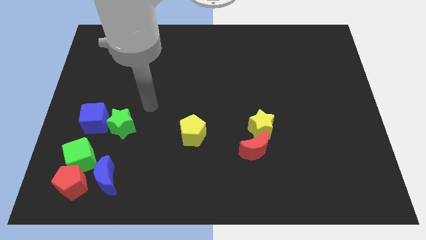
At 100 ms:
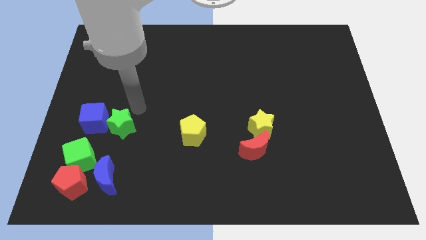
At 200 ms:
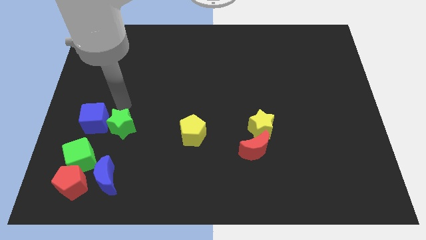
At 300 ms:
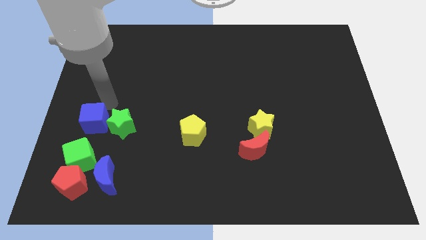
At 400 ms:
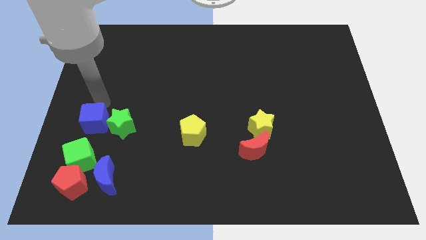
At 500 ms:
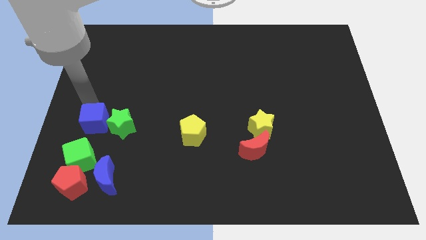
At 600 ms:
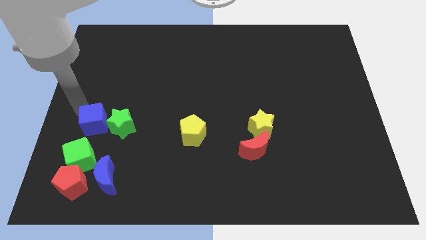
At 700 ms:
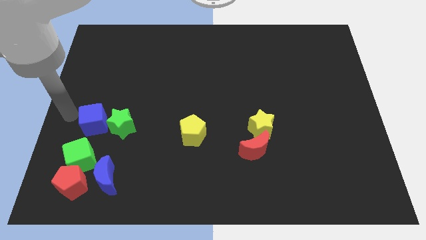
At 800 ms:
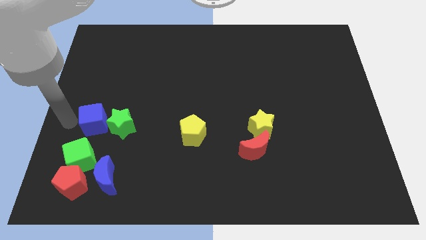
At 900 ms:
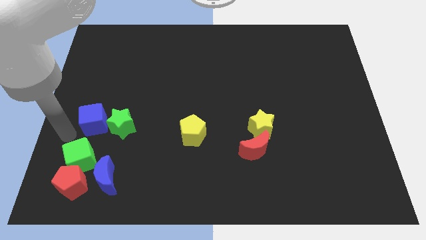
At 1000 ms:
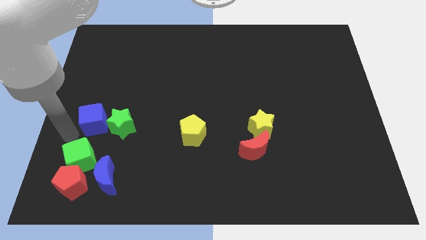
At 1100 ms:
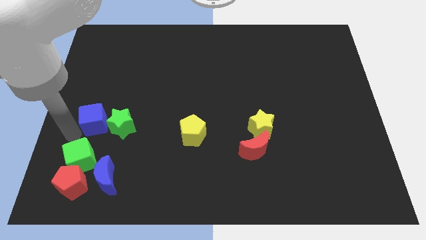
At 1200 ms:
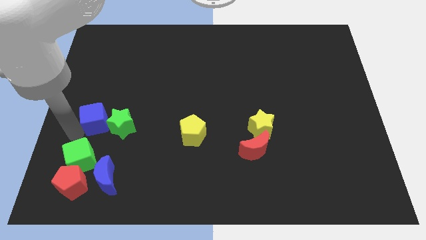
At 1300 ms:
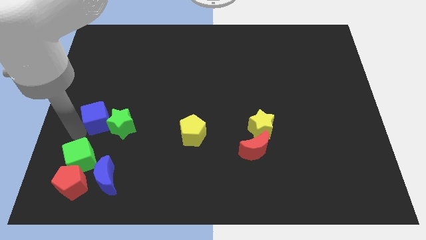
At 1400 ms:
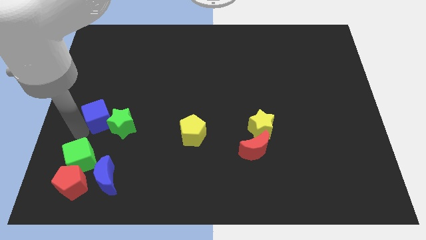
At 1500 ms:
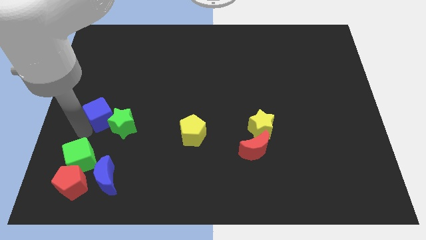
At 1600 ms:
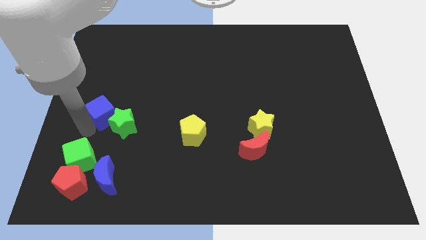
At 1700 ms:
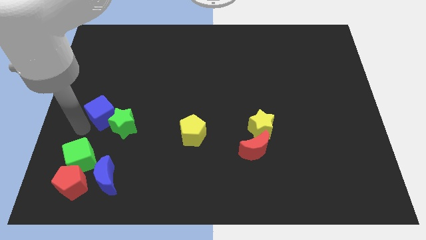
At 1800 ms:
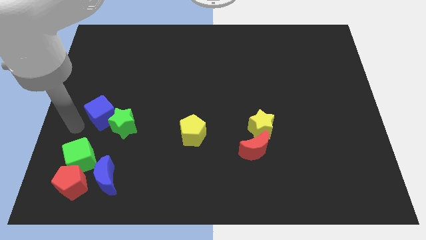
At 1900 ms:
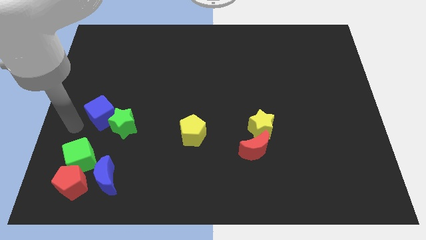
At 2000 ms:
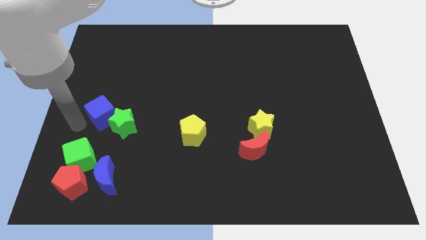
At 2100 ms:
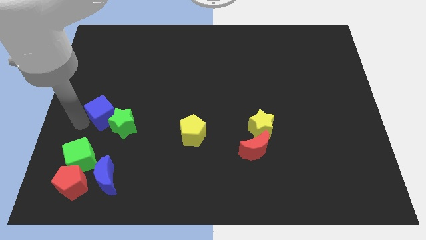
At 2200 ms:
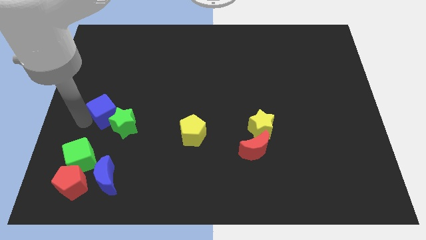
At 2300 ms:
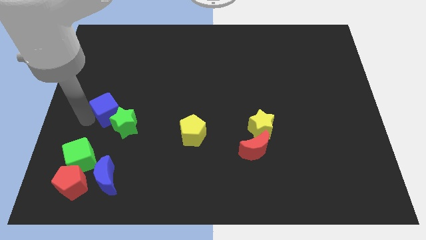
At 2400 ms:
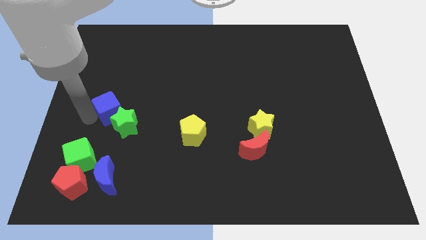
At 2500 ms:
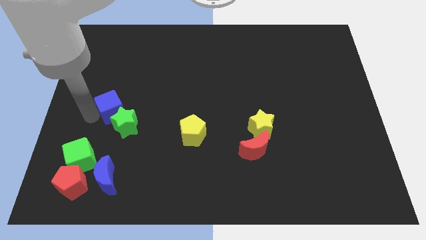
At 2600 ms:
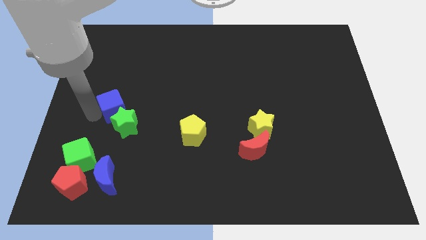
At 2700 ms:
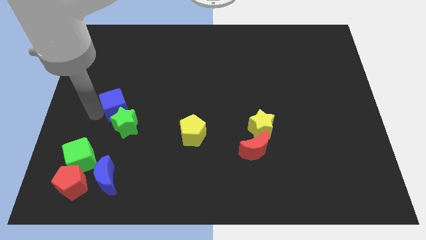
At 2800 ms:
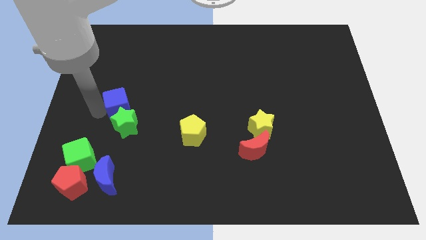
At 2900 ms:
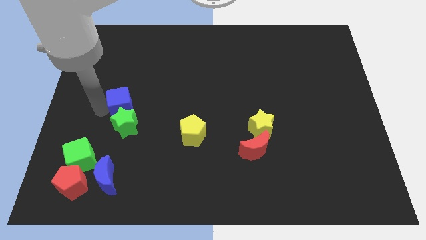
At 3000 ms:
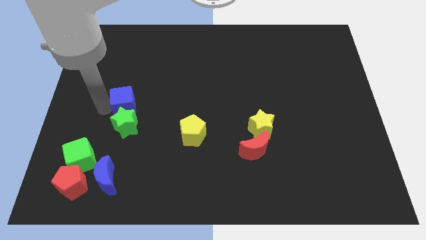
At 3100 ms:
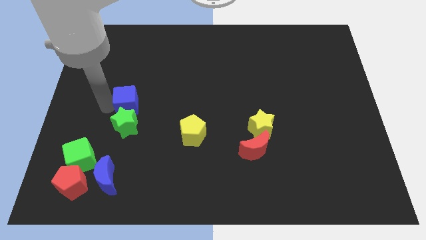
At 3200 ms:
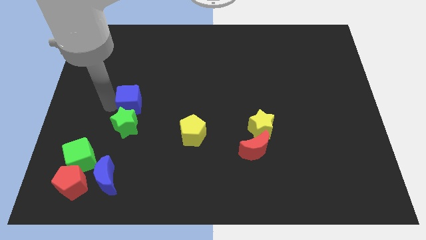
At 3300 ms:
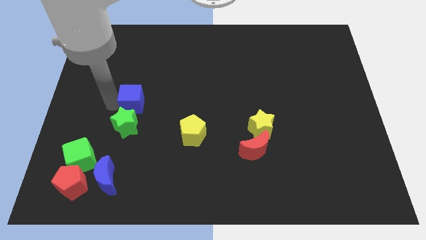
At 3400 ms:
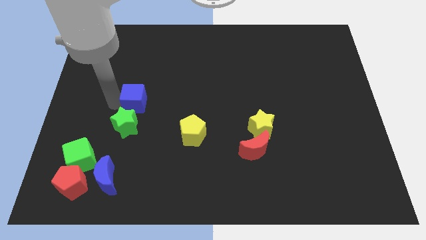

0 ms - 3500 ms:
slide the blue cube to the right a little

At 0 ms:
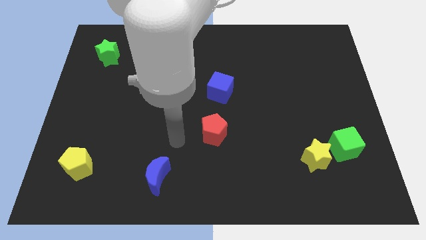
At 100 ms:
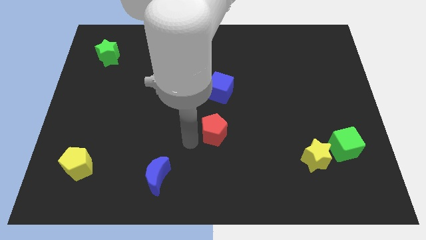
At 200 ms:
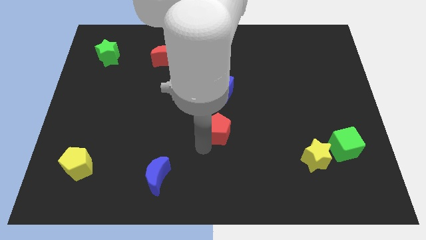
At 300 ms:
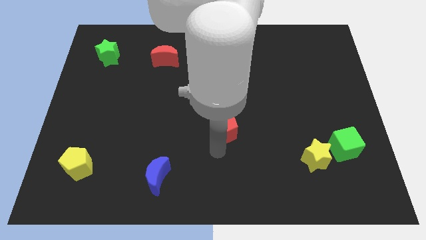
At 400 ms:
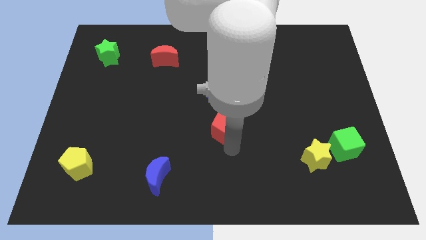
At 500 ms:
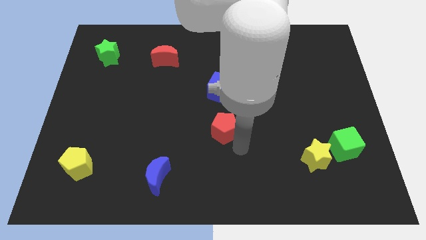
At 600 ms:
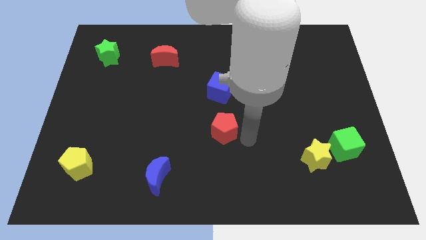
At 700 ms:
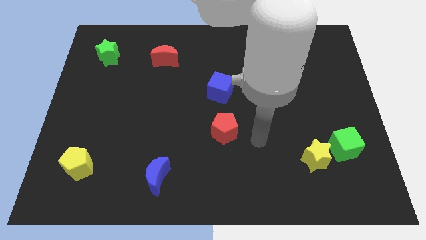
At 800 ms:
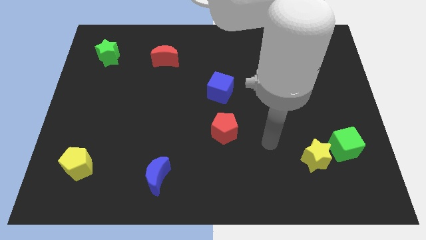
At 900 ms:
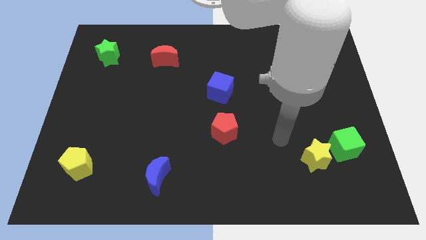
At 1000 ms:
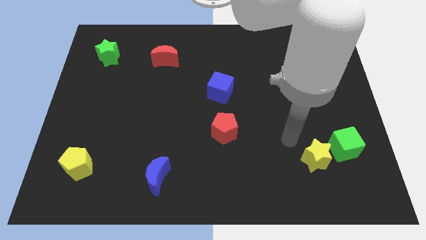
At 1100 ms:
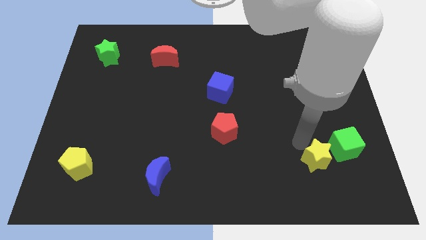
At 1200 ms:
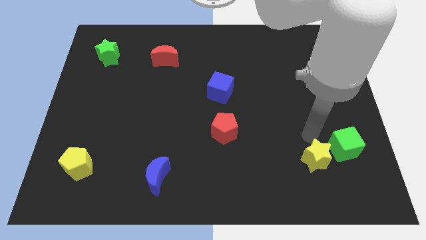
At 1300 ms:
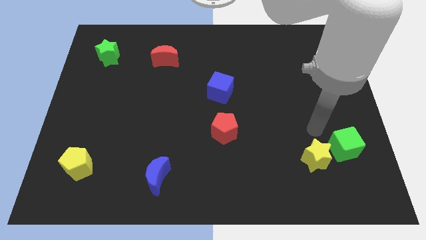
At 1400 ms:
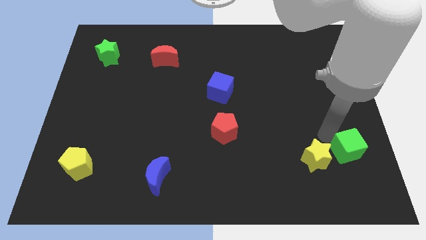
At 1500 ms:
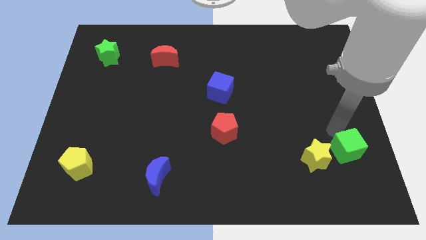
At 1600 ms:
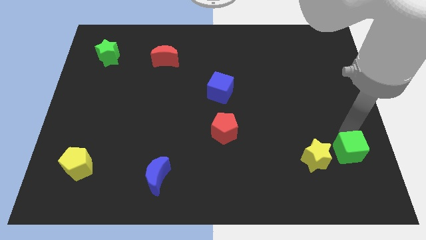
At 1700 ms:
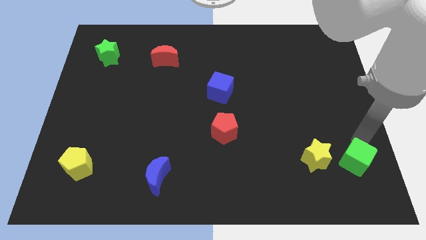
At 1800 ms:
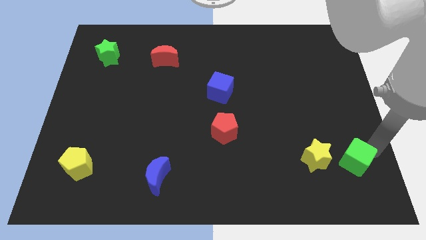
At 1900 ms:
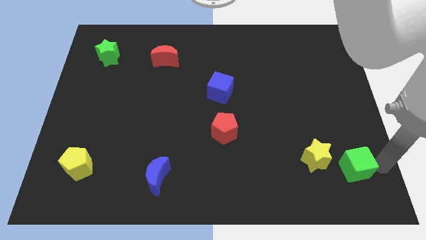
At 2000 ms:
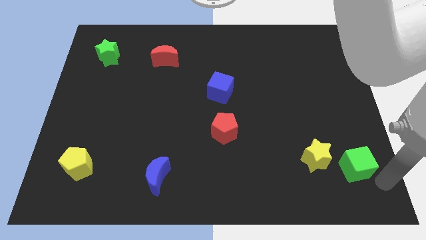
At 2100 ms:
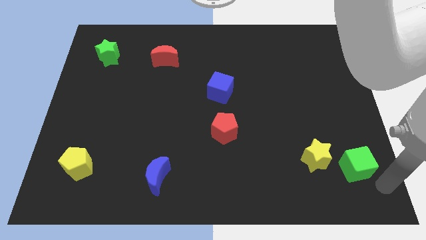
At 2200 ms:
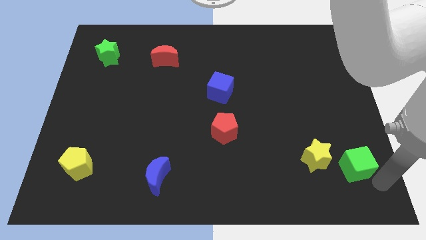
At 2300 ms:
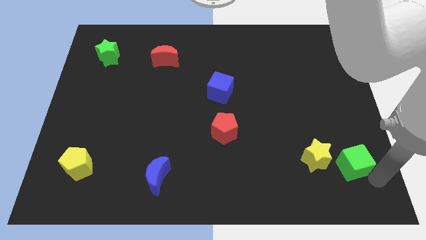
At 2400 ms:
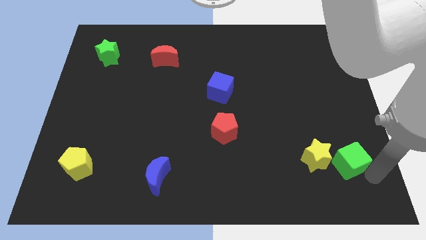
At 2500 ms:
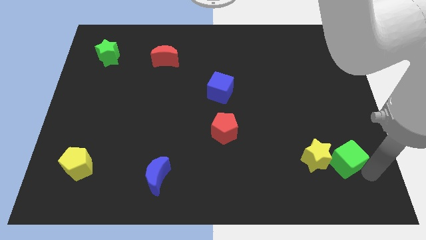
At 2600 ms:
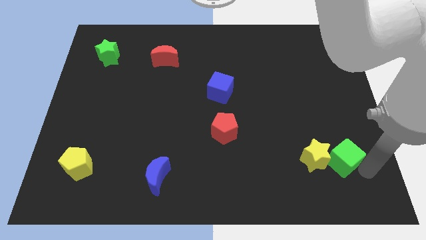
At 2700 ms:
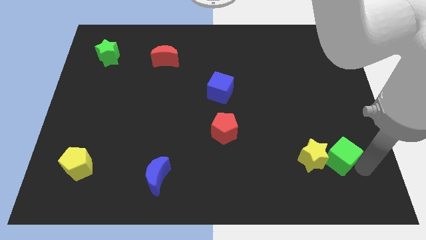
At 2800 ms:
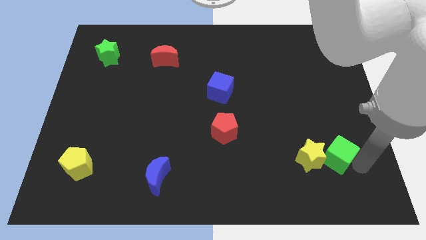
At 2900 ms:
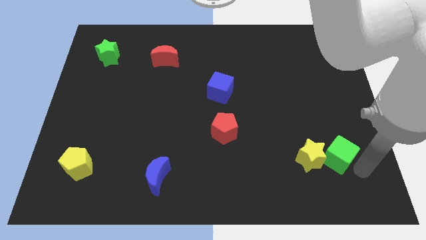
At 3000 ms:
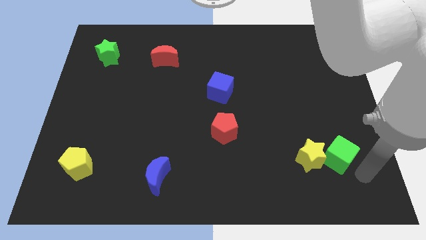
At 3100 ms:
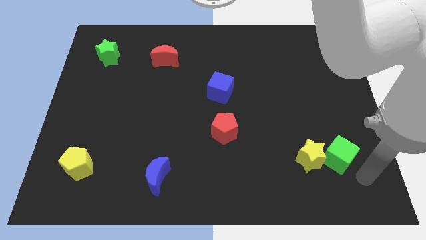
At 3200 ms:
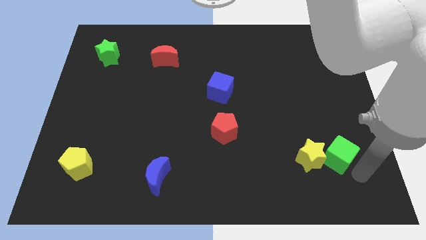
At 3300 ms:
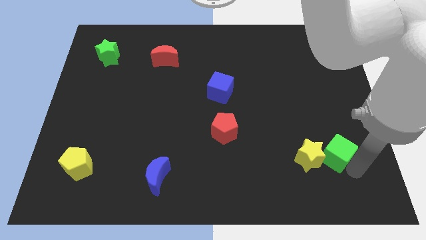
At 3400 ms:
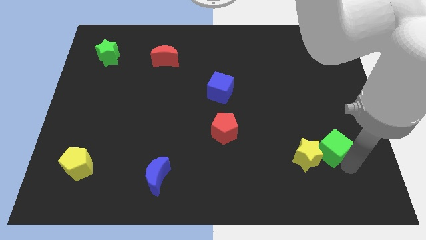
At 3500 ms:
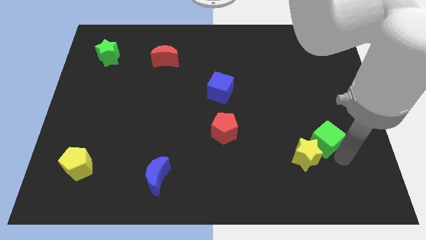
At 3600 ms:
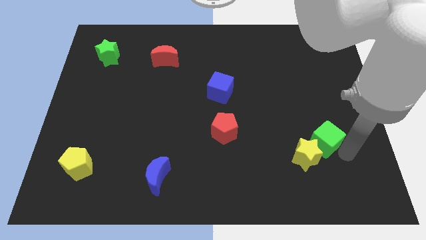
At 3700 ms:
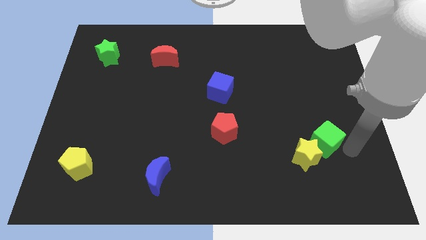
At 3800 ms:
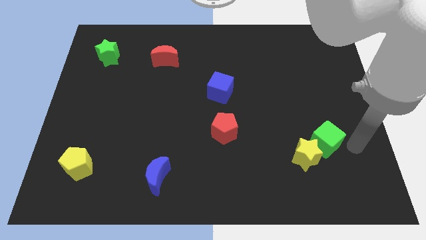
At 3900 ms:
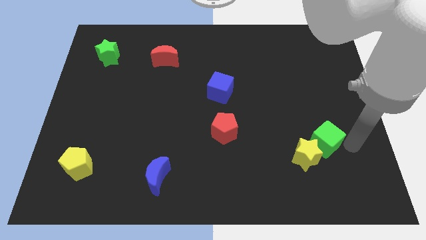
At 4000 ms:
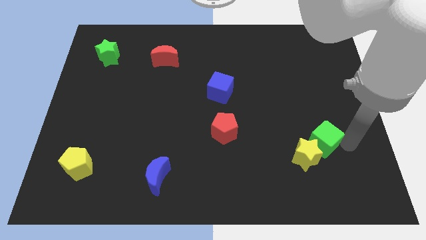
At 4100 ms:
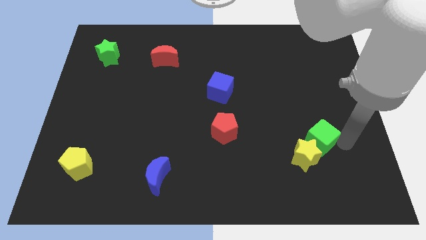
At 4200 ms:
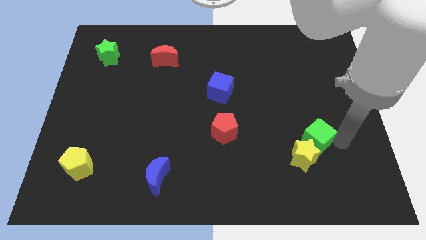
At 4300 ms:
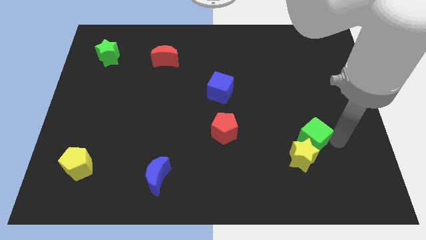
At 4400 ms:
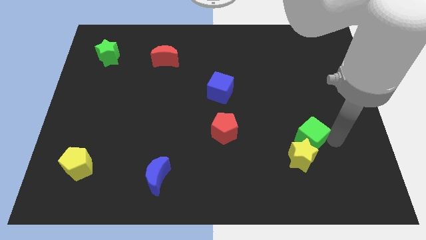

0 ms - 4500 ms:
move the green cube a little to the left

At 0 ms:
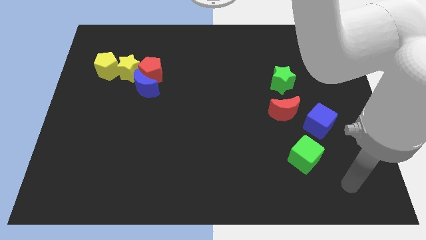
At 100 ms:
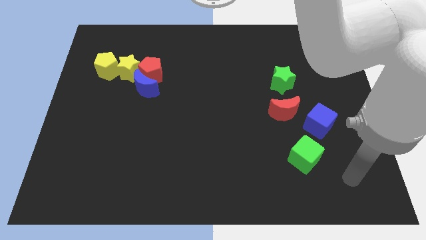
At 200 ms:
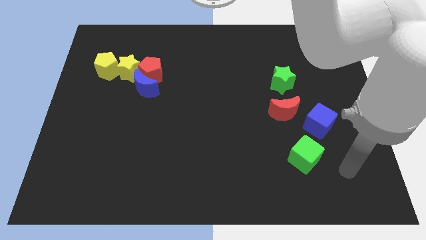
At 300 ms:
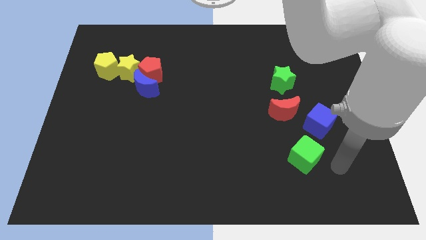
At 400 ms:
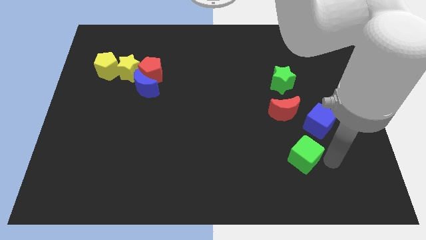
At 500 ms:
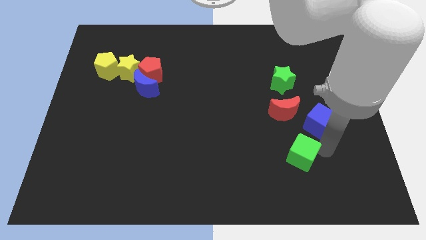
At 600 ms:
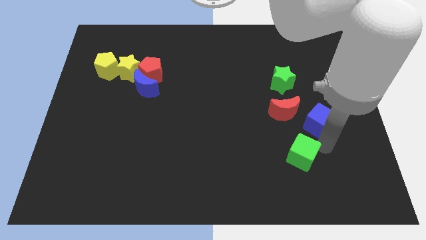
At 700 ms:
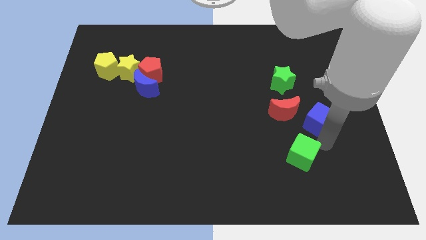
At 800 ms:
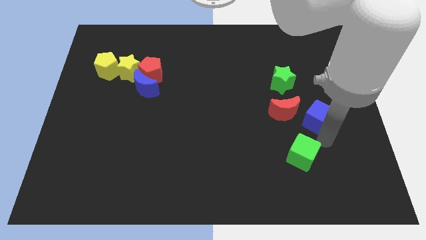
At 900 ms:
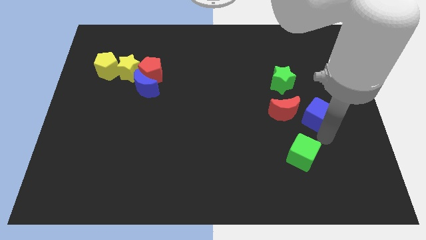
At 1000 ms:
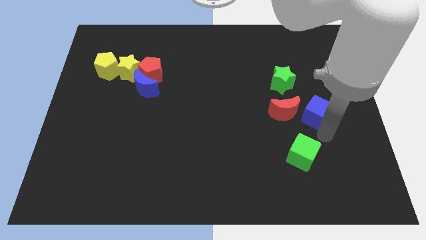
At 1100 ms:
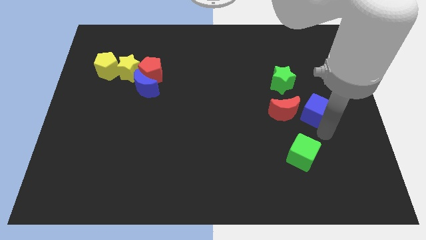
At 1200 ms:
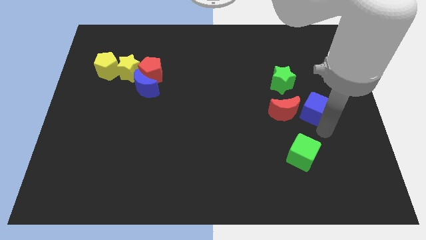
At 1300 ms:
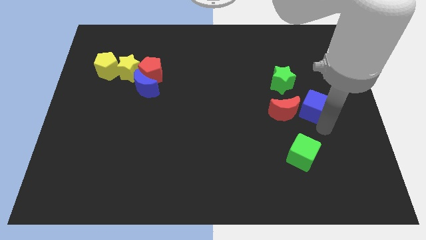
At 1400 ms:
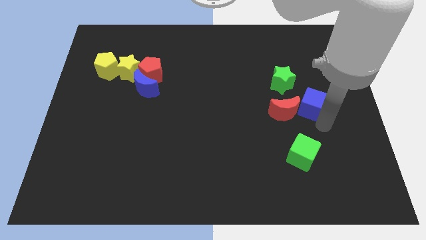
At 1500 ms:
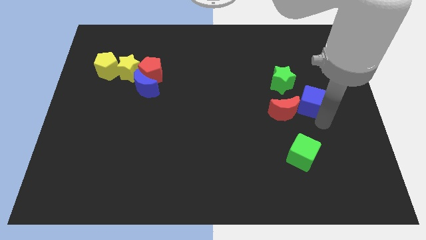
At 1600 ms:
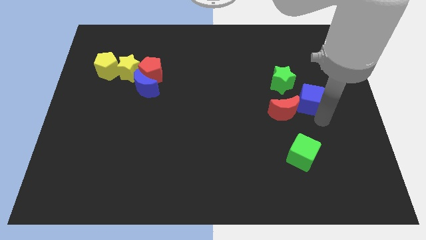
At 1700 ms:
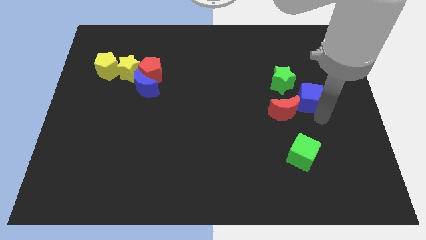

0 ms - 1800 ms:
slightly push the blue cube upwards
